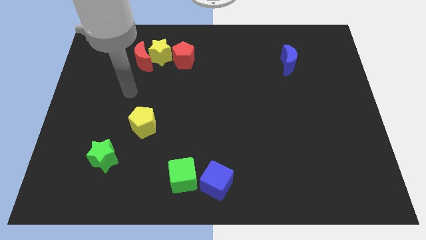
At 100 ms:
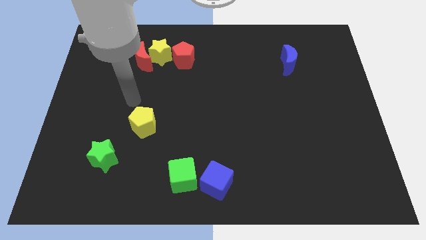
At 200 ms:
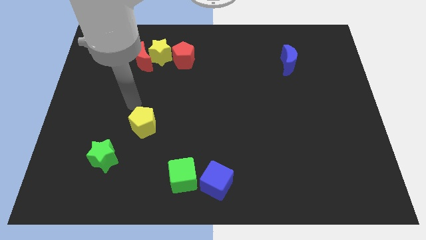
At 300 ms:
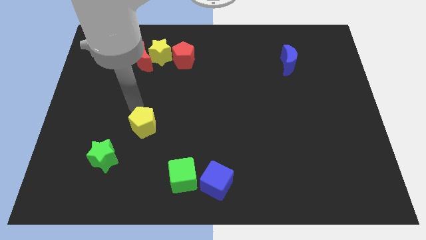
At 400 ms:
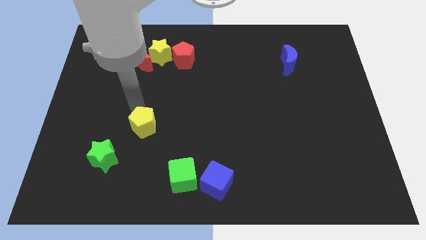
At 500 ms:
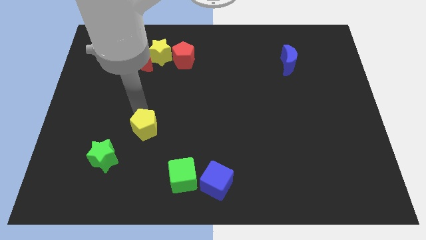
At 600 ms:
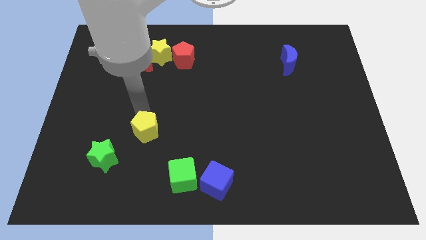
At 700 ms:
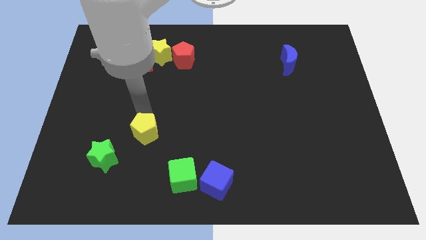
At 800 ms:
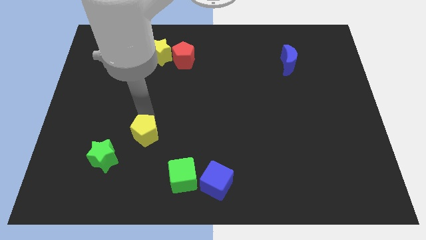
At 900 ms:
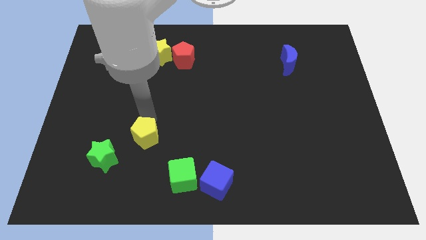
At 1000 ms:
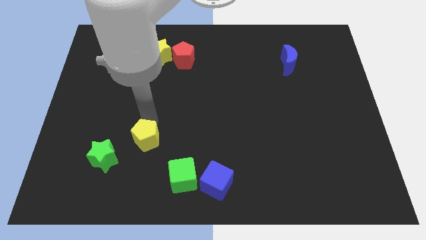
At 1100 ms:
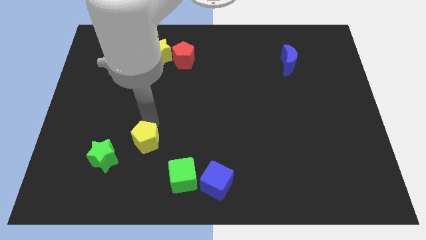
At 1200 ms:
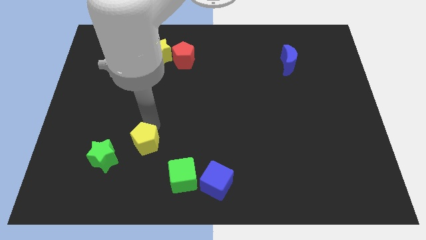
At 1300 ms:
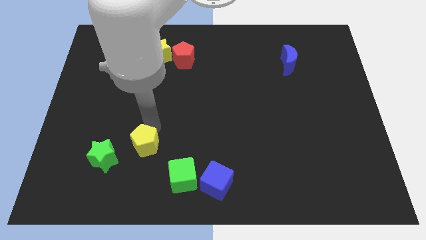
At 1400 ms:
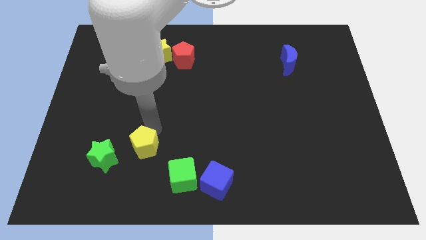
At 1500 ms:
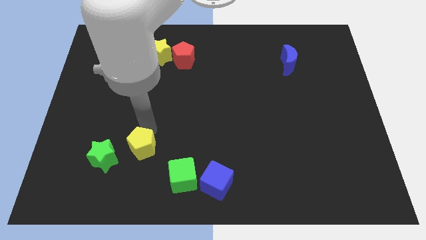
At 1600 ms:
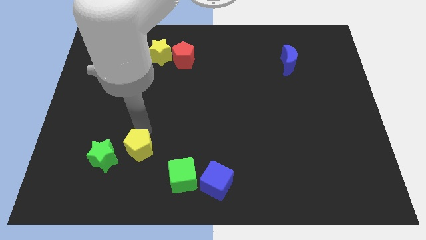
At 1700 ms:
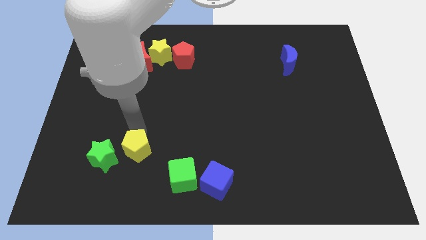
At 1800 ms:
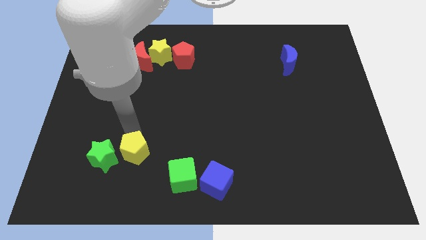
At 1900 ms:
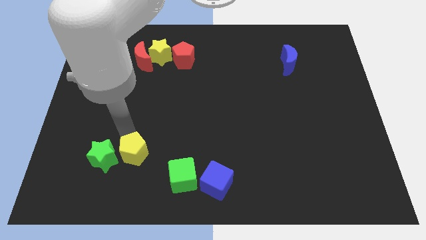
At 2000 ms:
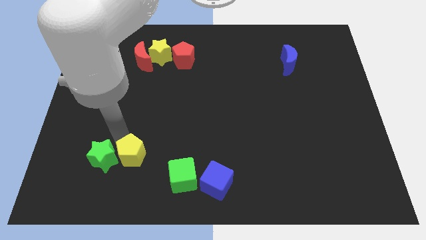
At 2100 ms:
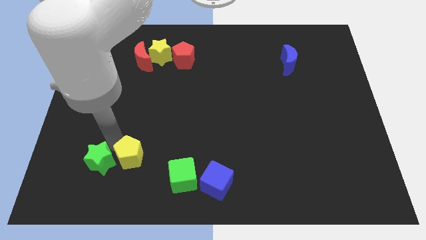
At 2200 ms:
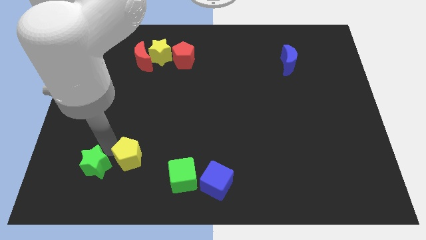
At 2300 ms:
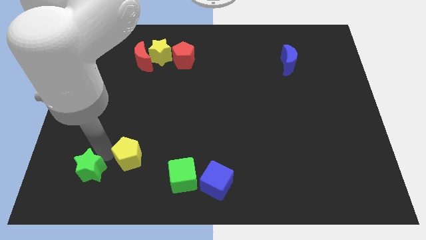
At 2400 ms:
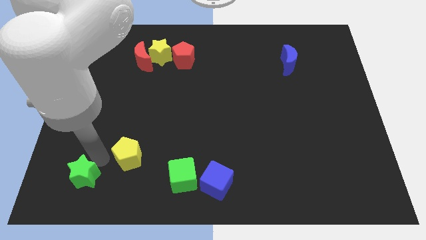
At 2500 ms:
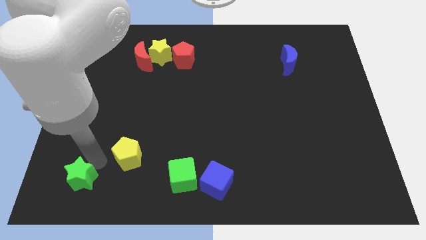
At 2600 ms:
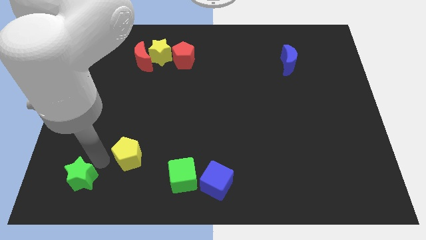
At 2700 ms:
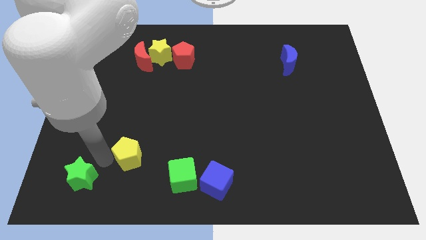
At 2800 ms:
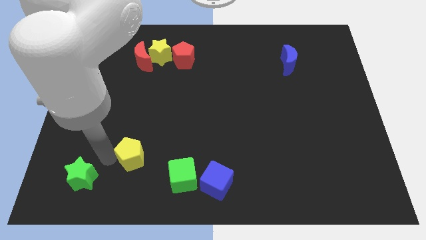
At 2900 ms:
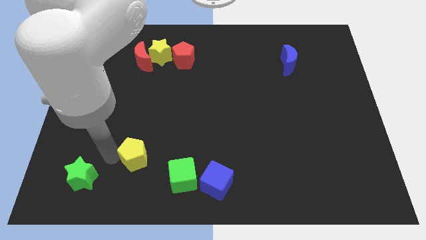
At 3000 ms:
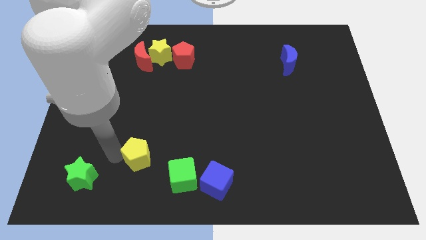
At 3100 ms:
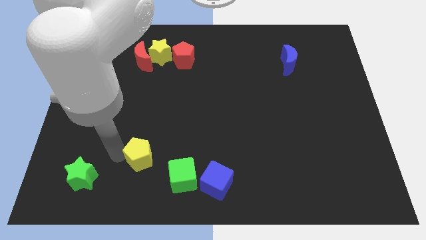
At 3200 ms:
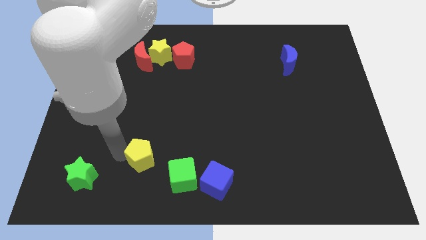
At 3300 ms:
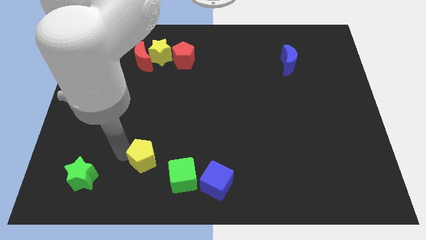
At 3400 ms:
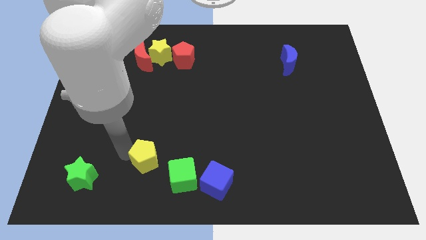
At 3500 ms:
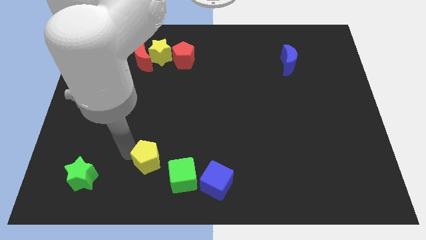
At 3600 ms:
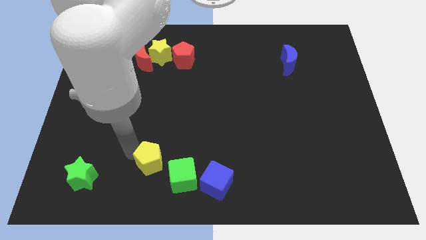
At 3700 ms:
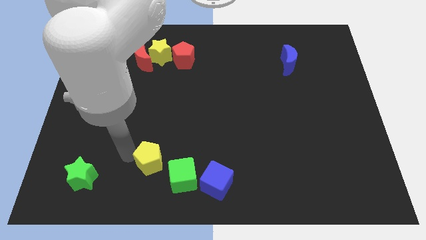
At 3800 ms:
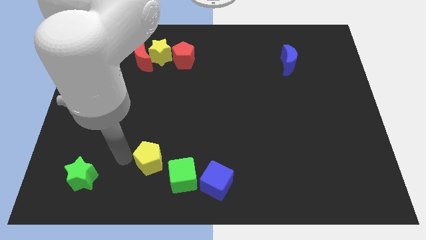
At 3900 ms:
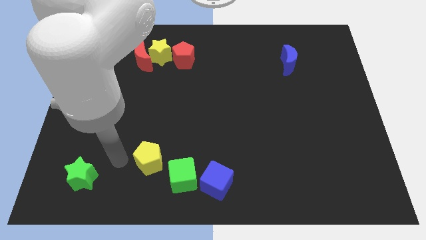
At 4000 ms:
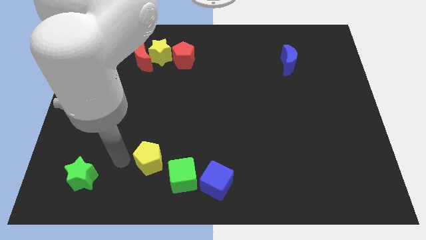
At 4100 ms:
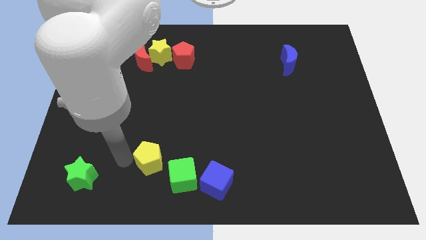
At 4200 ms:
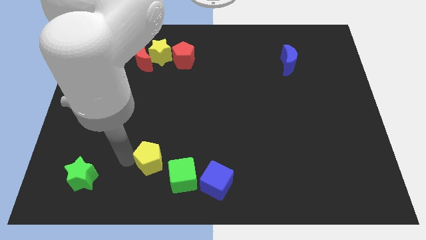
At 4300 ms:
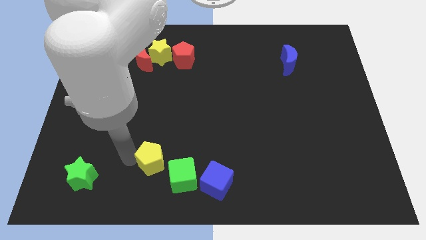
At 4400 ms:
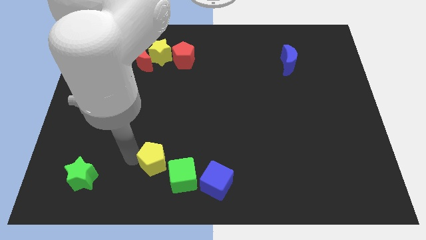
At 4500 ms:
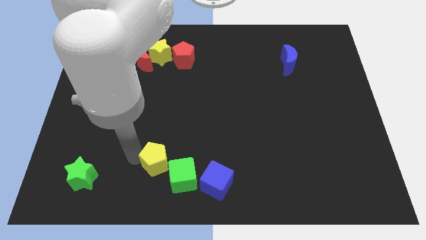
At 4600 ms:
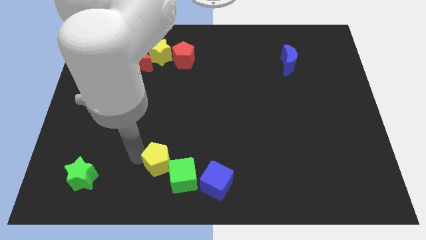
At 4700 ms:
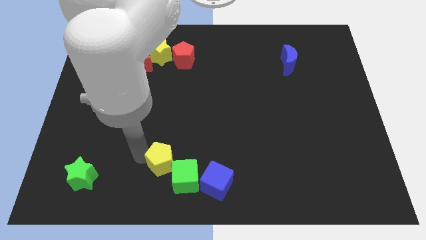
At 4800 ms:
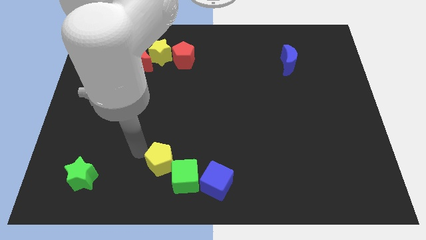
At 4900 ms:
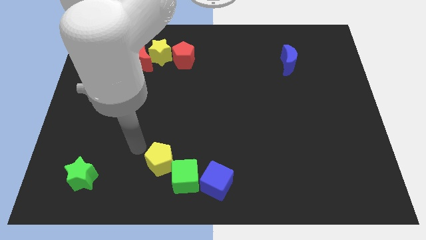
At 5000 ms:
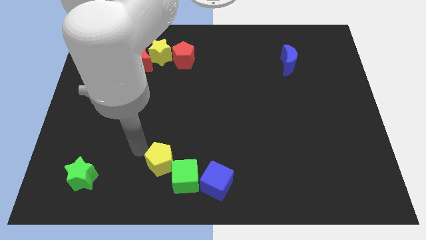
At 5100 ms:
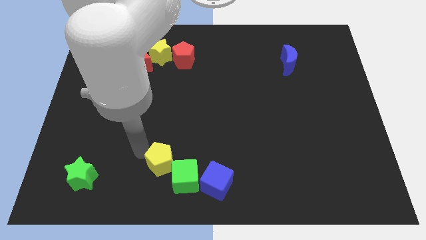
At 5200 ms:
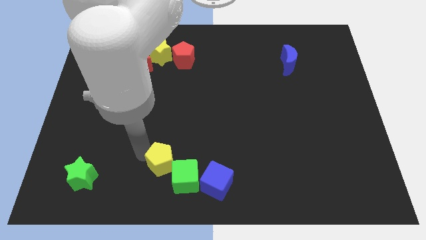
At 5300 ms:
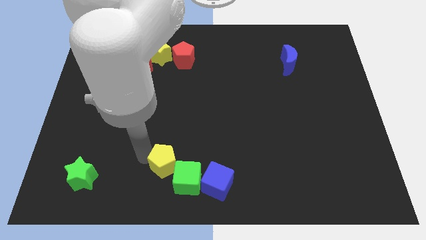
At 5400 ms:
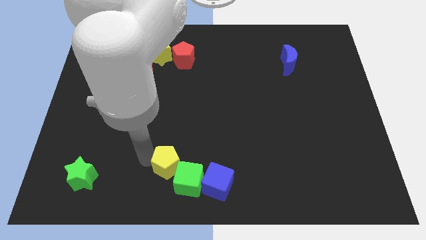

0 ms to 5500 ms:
put the yellow pentagon close to the green cube

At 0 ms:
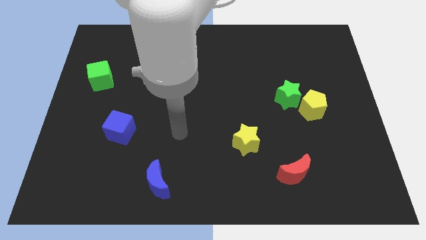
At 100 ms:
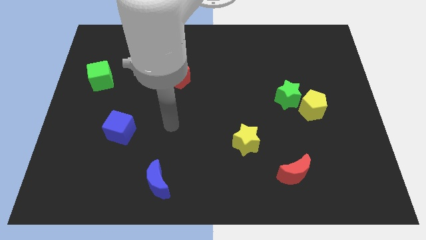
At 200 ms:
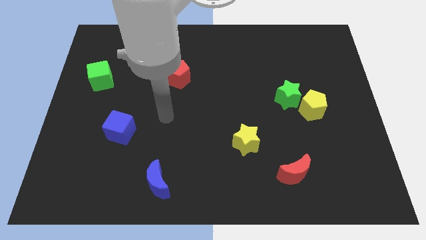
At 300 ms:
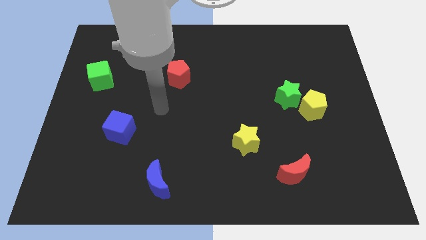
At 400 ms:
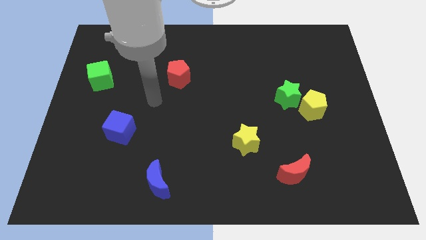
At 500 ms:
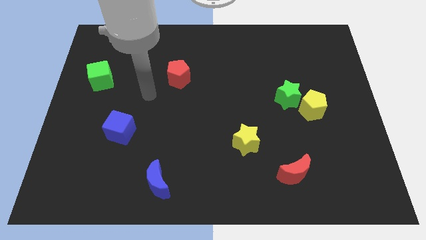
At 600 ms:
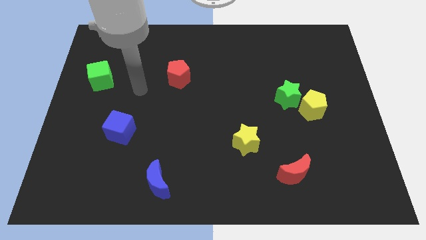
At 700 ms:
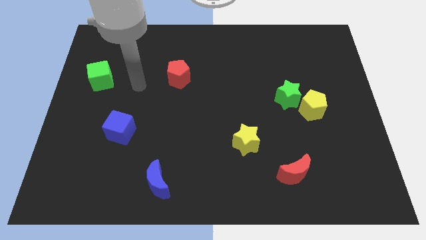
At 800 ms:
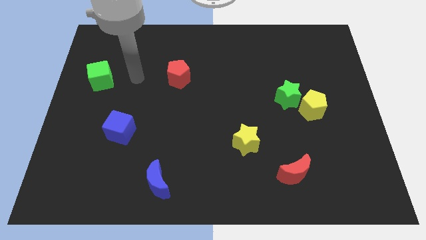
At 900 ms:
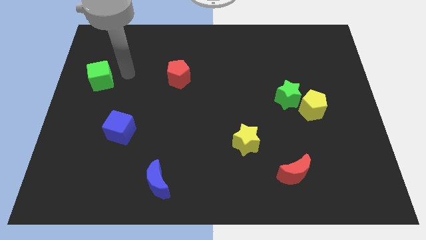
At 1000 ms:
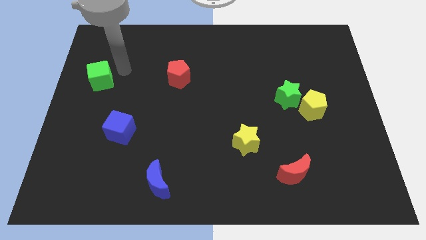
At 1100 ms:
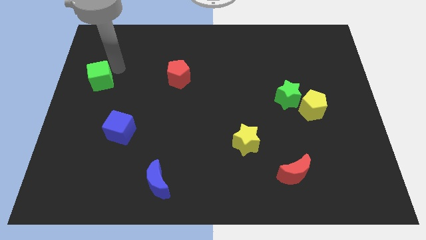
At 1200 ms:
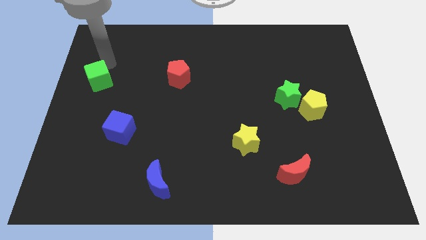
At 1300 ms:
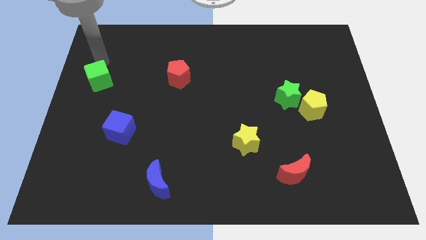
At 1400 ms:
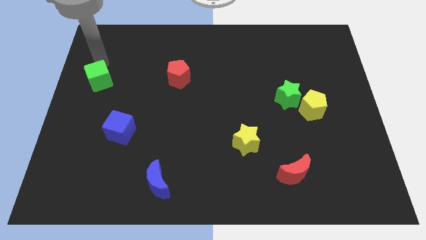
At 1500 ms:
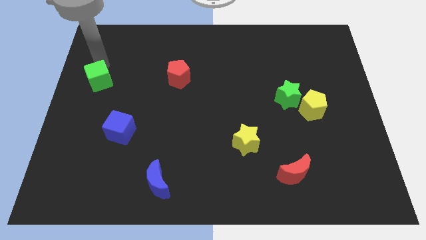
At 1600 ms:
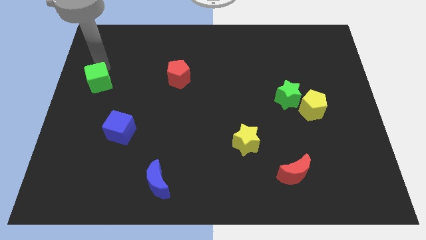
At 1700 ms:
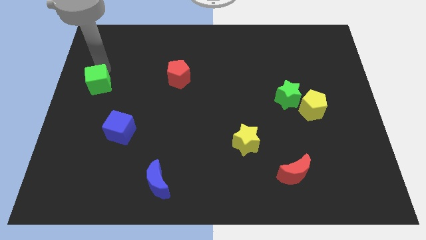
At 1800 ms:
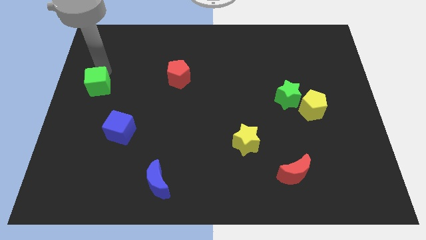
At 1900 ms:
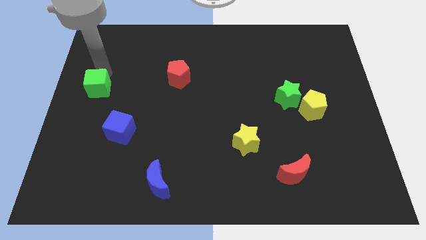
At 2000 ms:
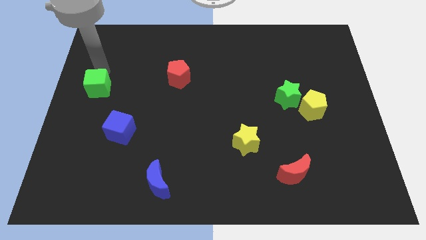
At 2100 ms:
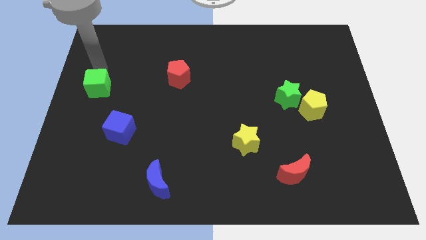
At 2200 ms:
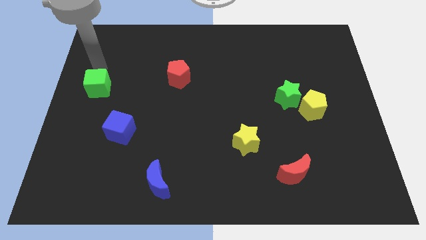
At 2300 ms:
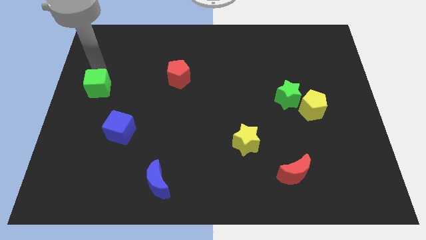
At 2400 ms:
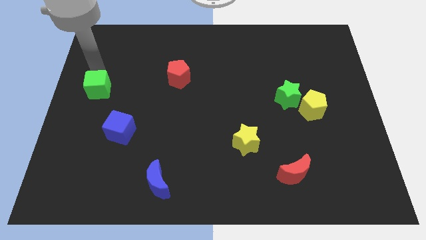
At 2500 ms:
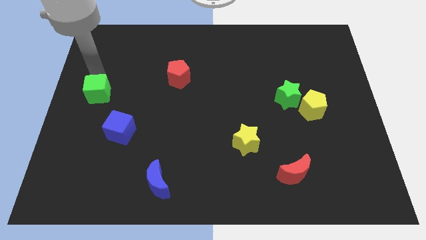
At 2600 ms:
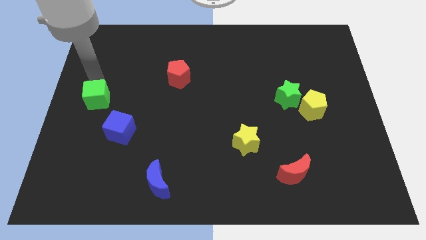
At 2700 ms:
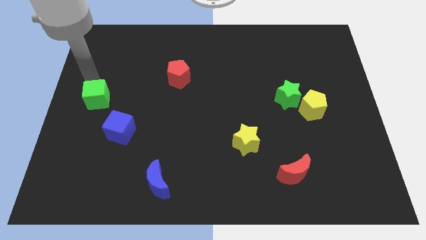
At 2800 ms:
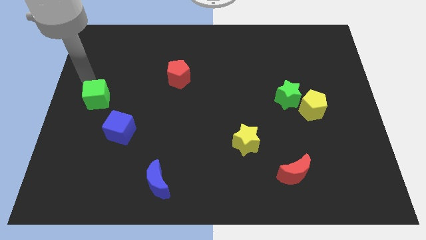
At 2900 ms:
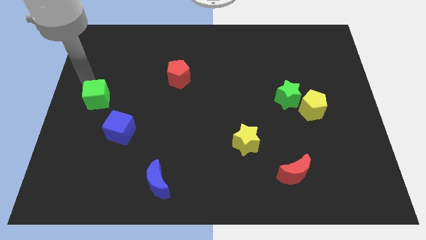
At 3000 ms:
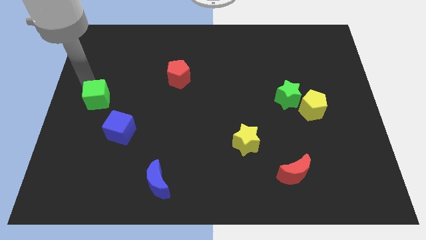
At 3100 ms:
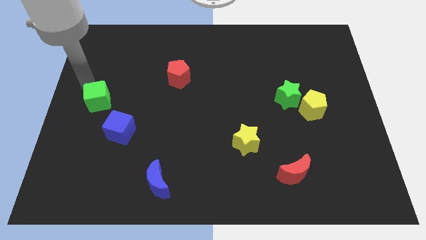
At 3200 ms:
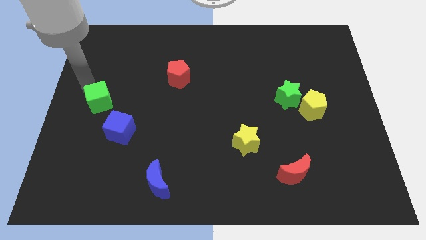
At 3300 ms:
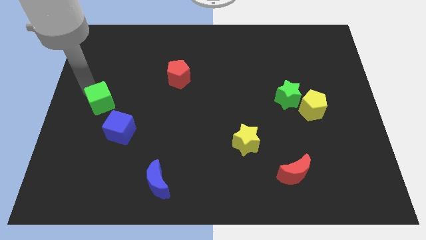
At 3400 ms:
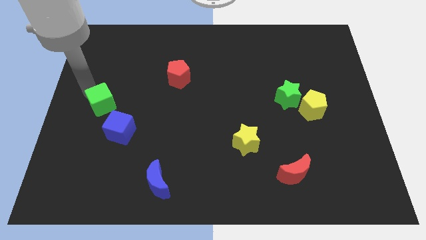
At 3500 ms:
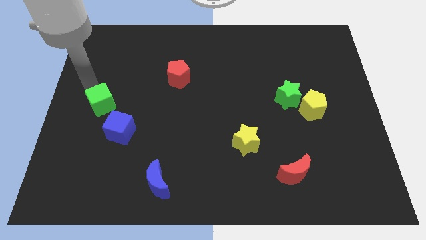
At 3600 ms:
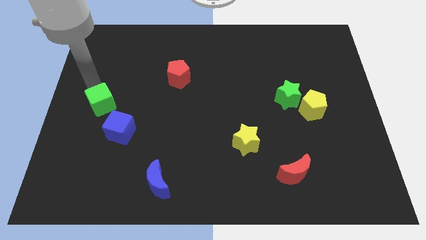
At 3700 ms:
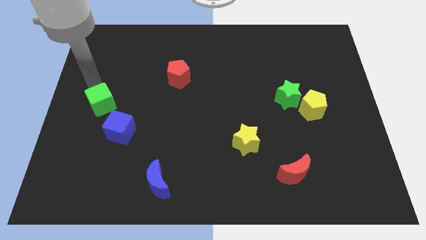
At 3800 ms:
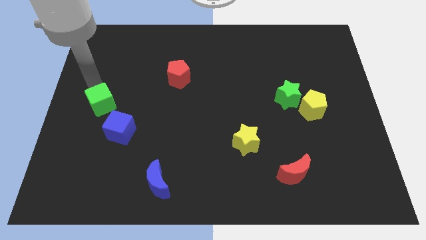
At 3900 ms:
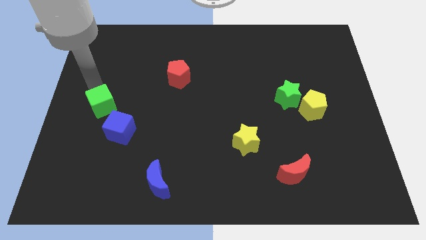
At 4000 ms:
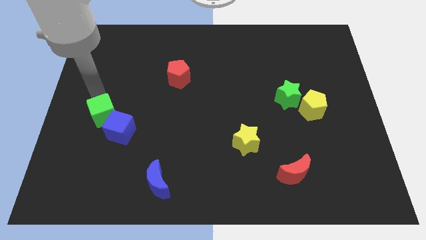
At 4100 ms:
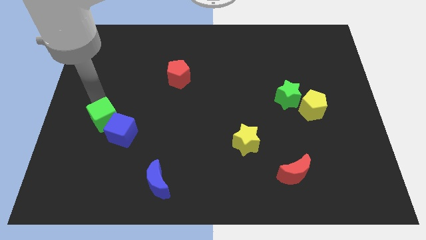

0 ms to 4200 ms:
push the green cube towards the blue cube
